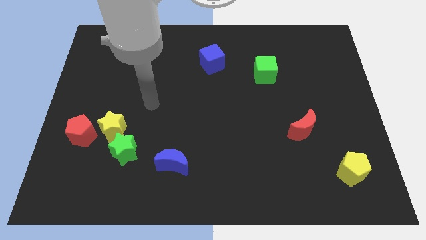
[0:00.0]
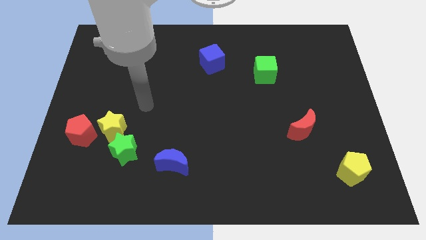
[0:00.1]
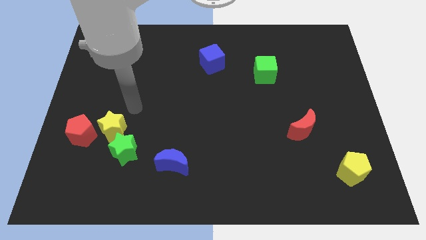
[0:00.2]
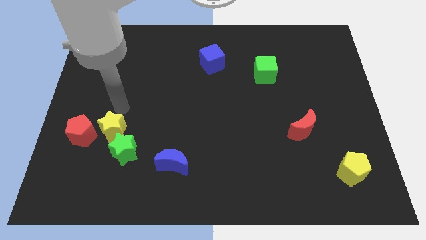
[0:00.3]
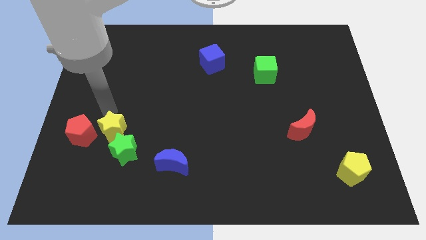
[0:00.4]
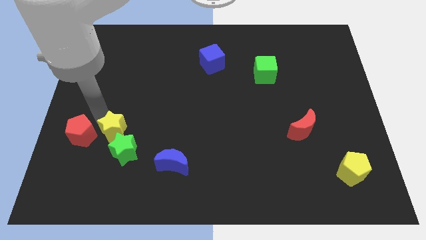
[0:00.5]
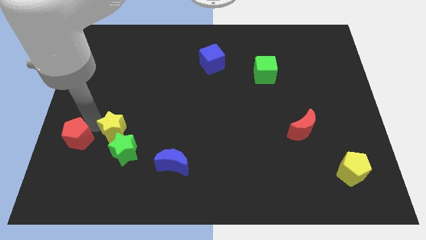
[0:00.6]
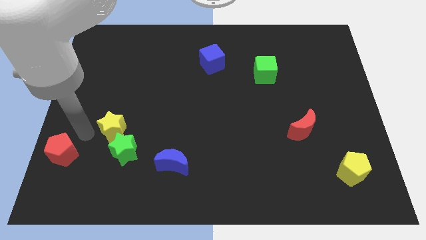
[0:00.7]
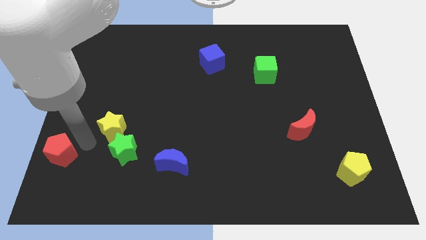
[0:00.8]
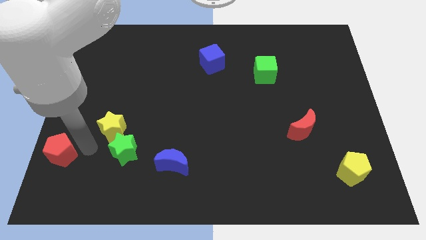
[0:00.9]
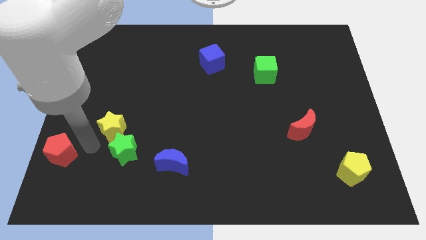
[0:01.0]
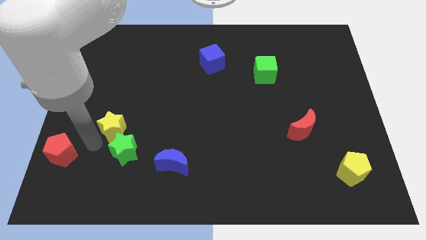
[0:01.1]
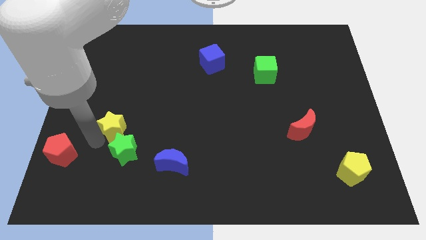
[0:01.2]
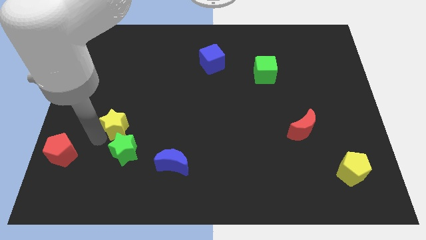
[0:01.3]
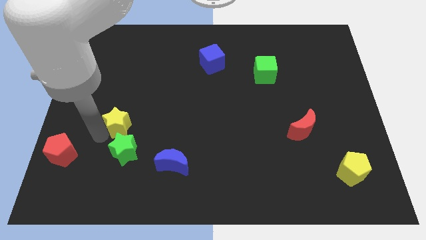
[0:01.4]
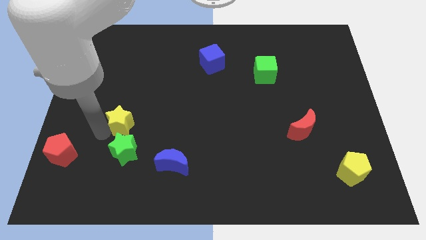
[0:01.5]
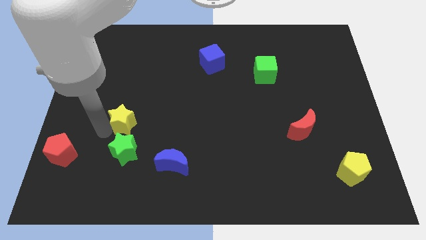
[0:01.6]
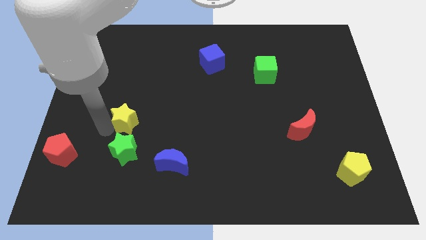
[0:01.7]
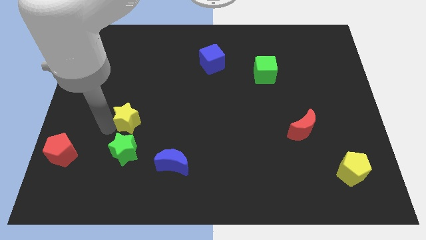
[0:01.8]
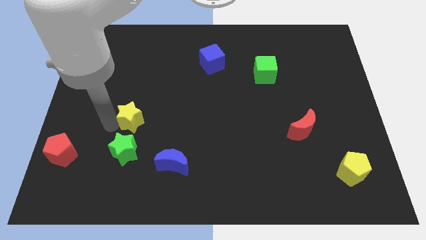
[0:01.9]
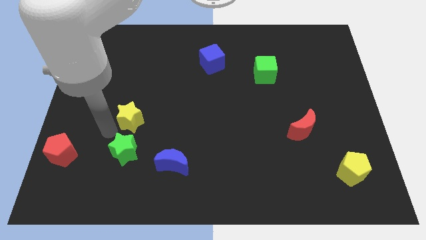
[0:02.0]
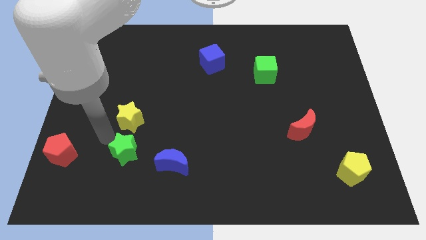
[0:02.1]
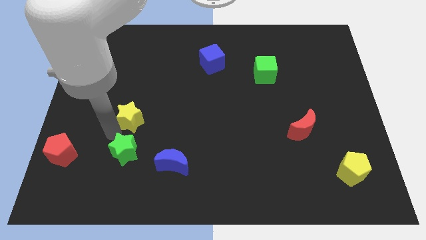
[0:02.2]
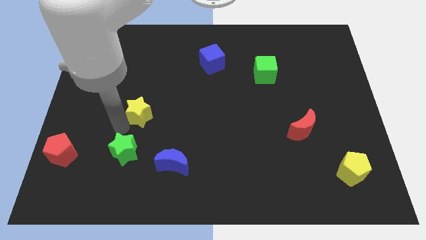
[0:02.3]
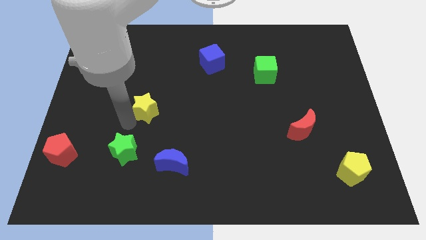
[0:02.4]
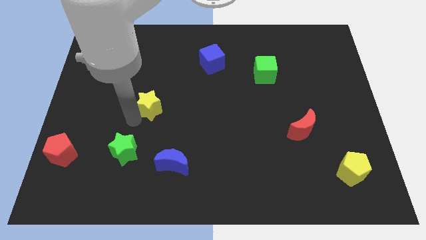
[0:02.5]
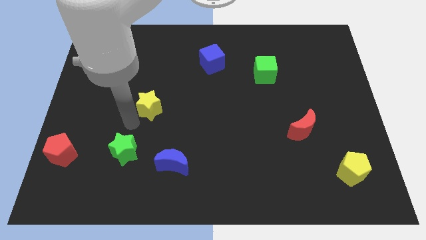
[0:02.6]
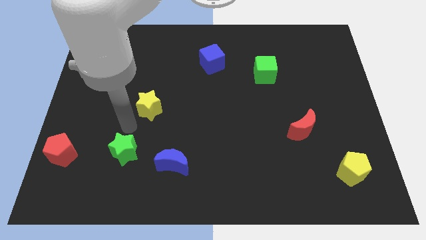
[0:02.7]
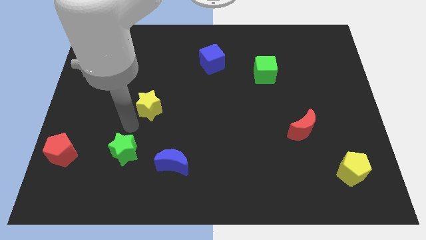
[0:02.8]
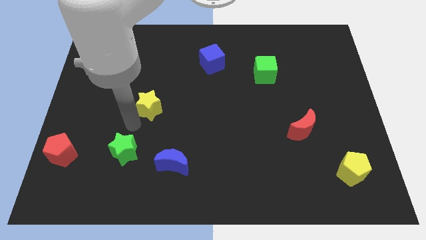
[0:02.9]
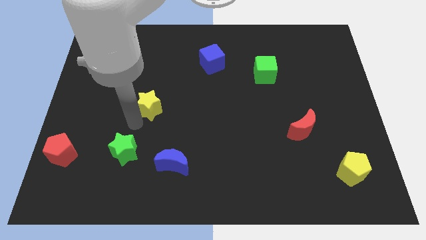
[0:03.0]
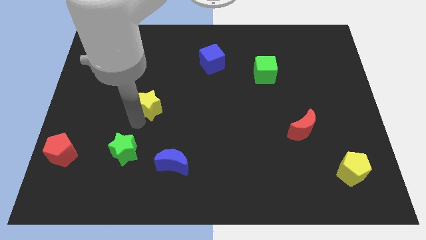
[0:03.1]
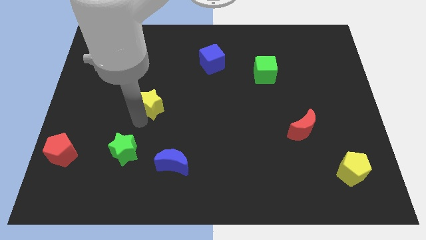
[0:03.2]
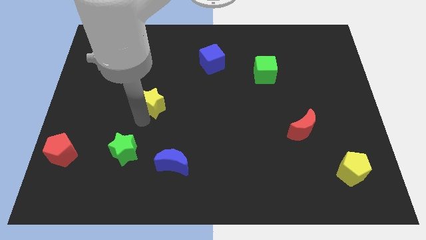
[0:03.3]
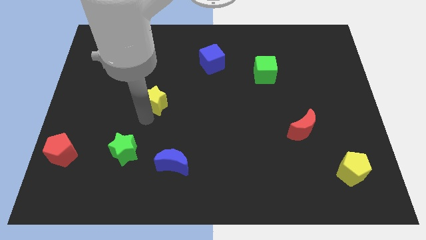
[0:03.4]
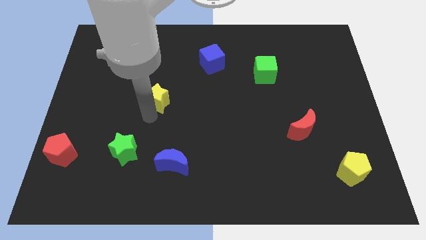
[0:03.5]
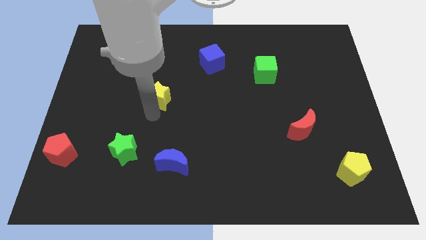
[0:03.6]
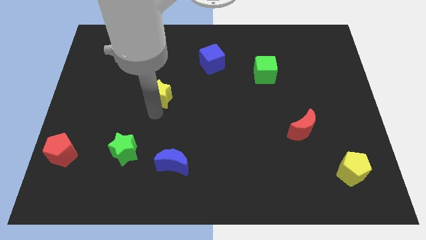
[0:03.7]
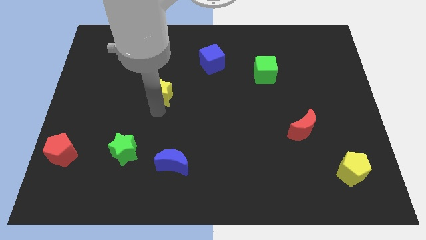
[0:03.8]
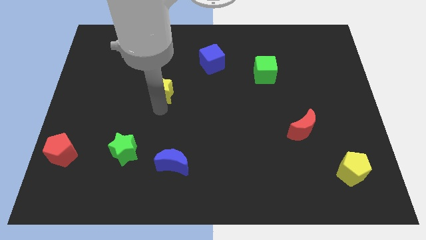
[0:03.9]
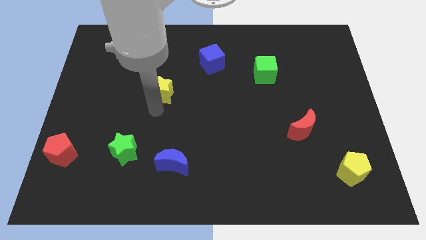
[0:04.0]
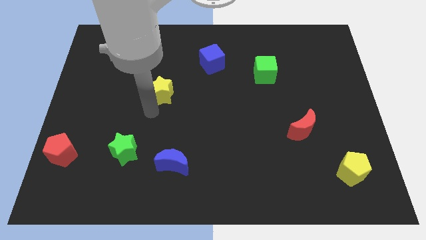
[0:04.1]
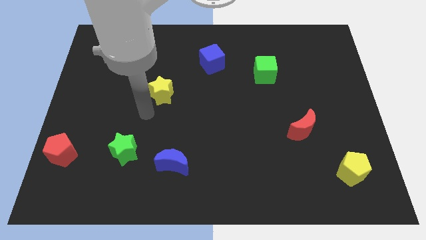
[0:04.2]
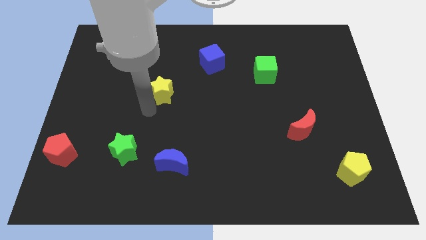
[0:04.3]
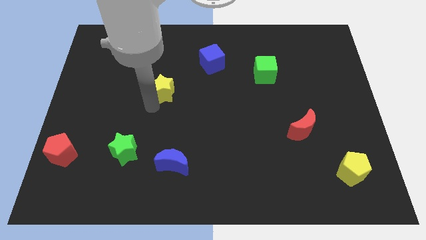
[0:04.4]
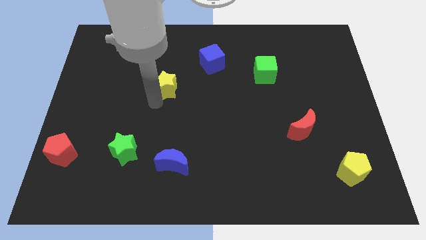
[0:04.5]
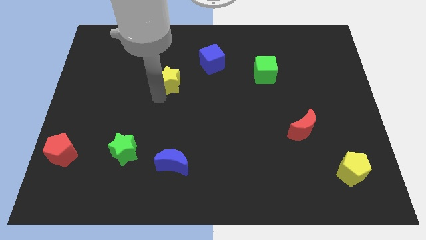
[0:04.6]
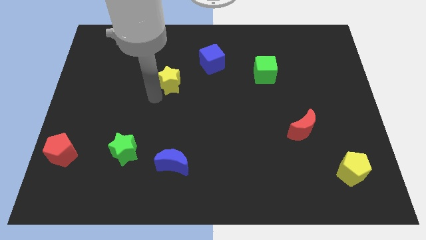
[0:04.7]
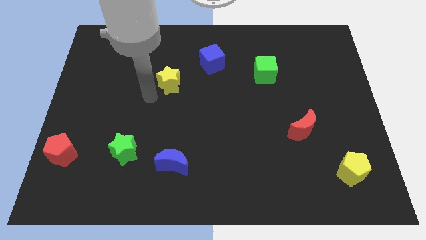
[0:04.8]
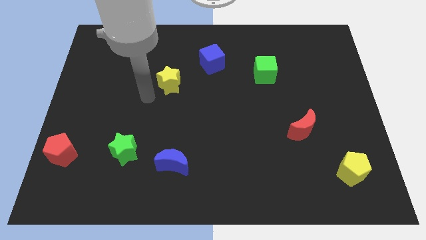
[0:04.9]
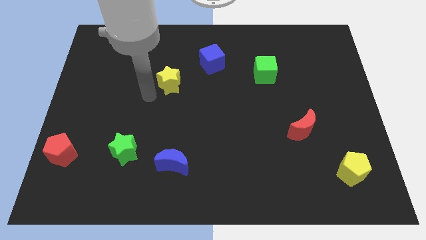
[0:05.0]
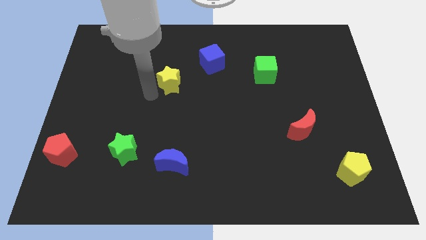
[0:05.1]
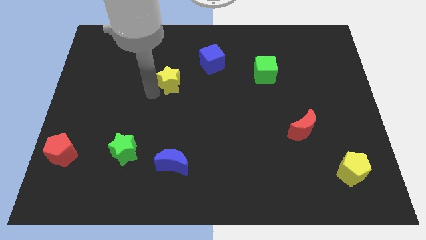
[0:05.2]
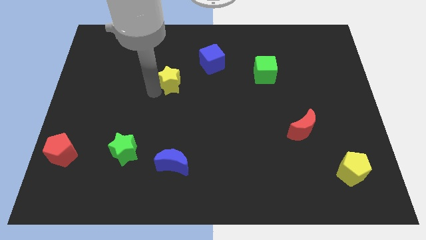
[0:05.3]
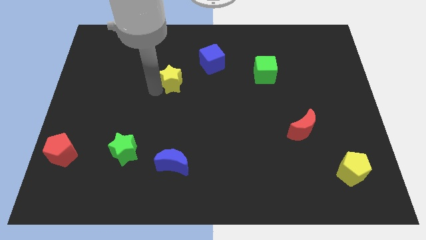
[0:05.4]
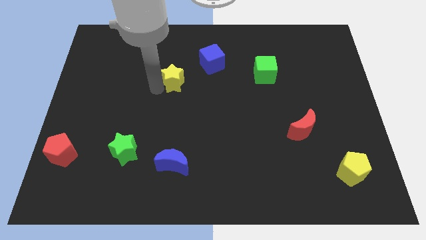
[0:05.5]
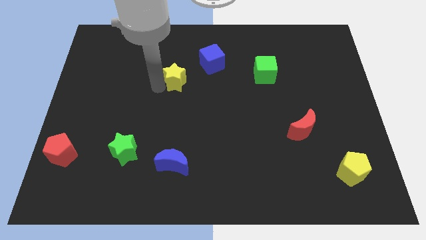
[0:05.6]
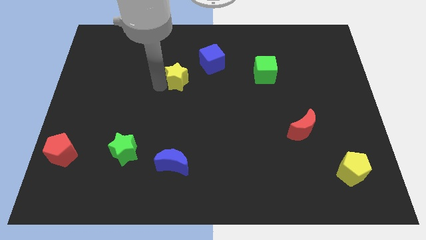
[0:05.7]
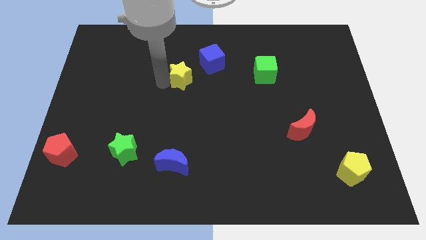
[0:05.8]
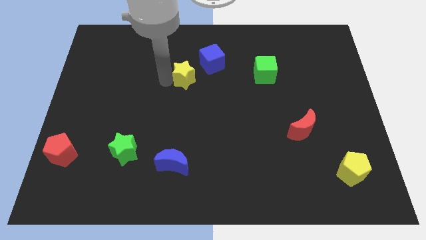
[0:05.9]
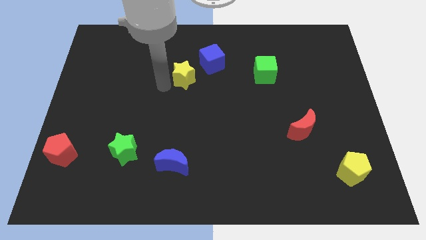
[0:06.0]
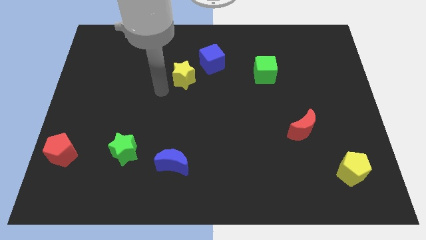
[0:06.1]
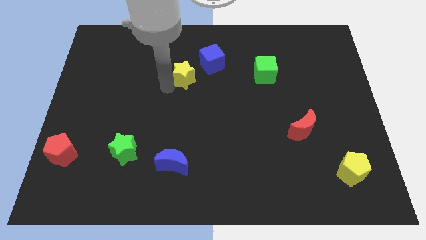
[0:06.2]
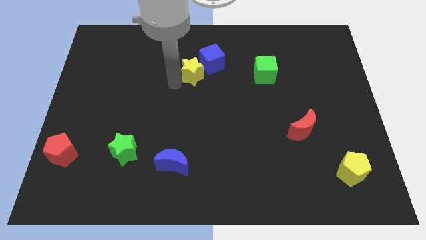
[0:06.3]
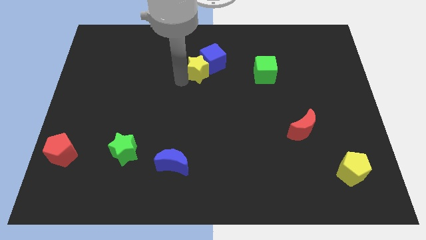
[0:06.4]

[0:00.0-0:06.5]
put the yellow star to the blue cube
